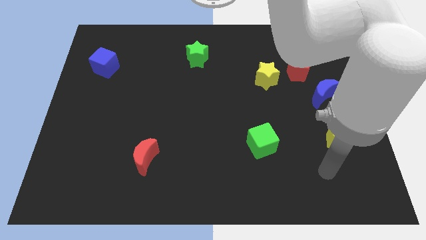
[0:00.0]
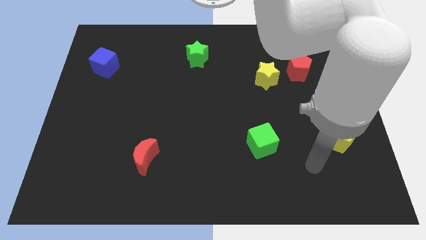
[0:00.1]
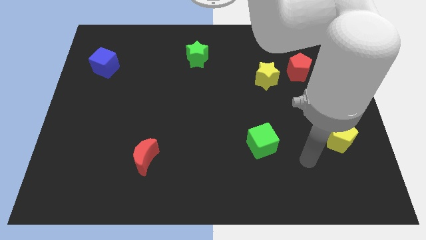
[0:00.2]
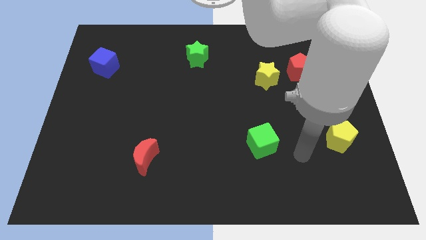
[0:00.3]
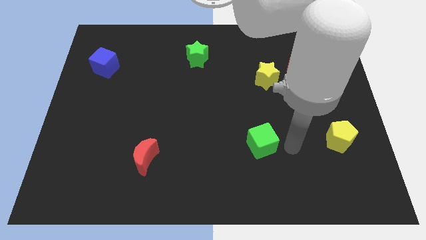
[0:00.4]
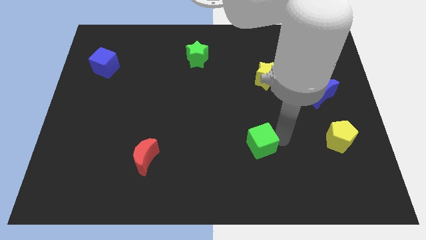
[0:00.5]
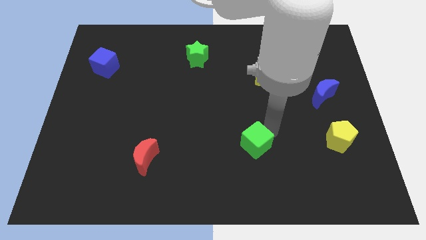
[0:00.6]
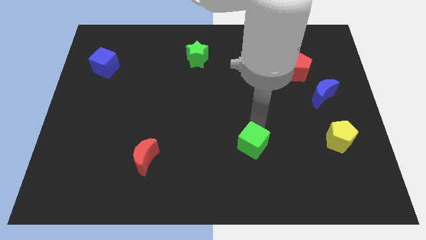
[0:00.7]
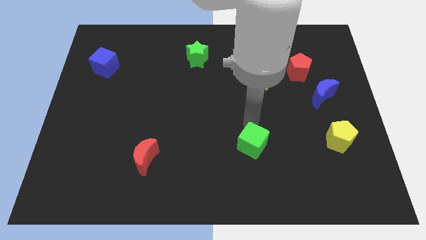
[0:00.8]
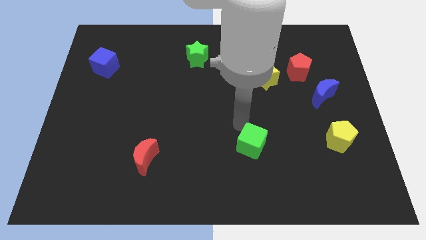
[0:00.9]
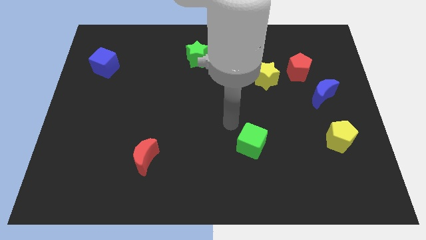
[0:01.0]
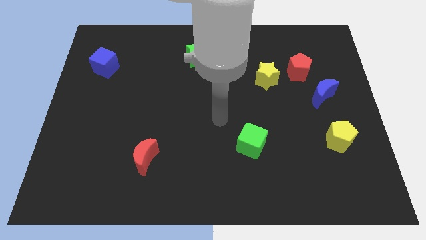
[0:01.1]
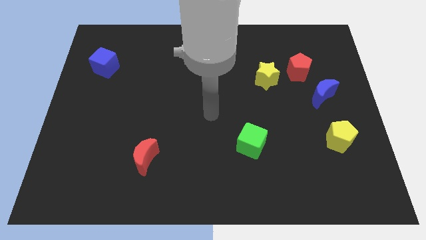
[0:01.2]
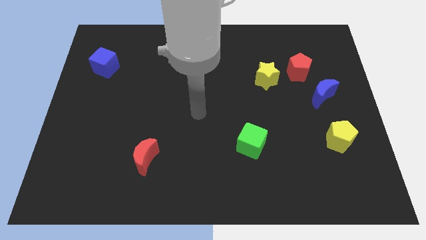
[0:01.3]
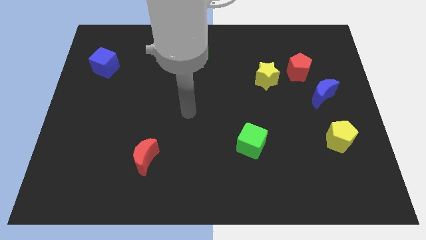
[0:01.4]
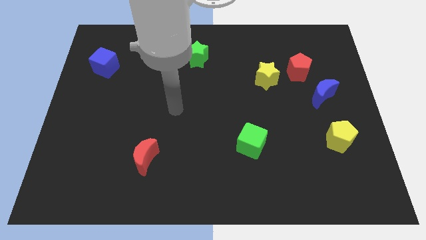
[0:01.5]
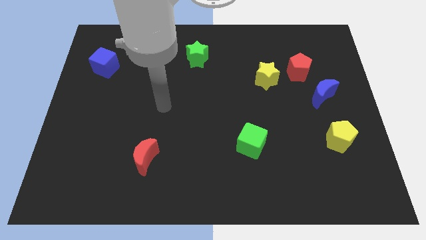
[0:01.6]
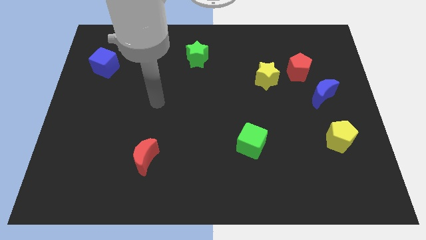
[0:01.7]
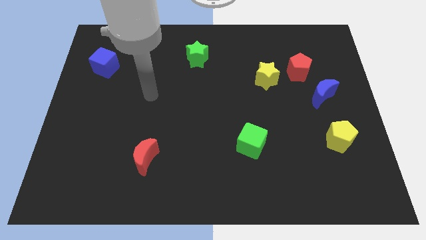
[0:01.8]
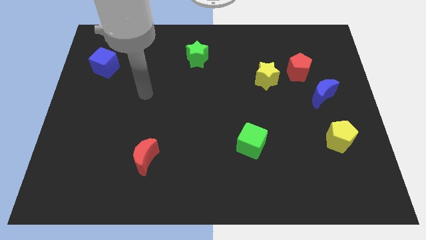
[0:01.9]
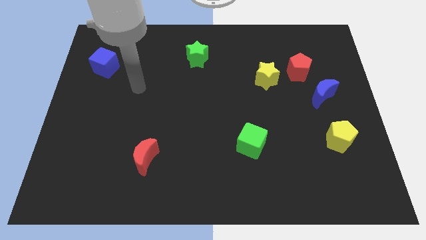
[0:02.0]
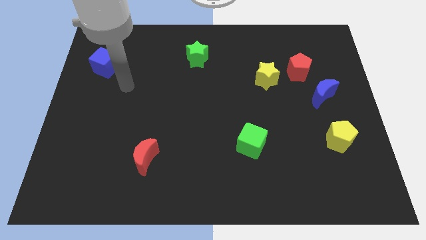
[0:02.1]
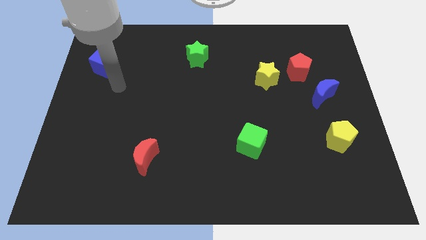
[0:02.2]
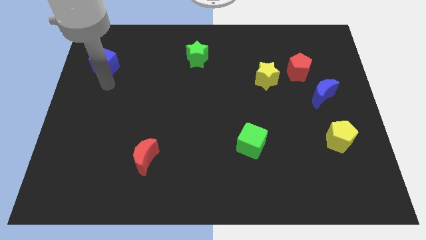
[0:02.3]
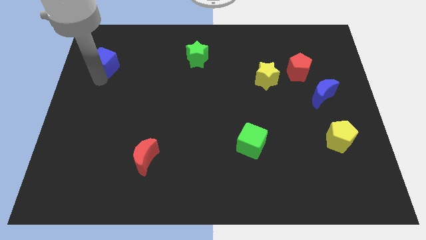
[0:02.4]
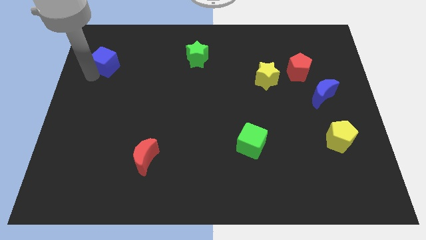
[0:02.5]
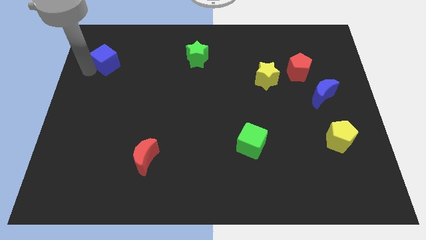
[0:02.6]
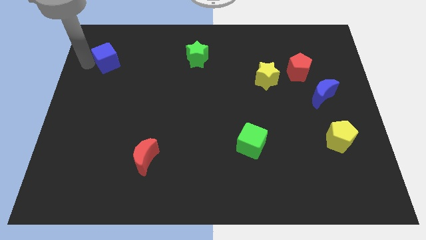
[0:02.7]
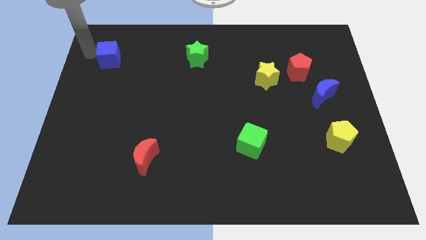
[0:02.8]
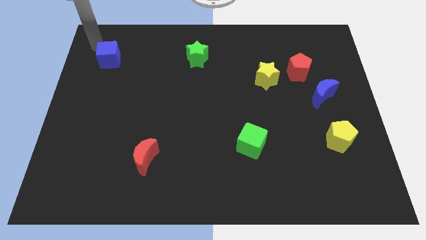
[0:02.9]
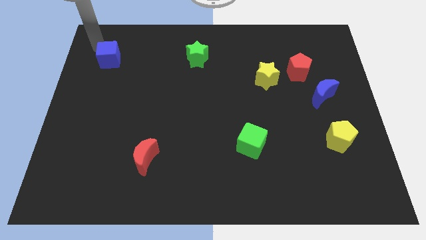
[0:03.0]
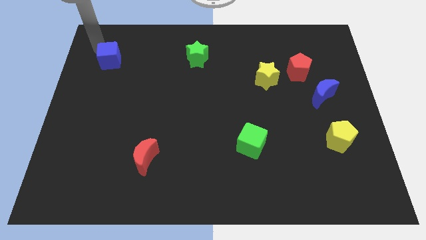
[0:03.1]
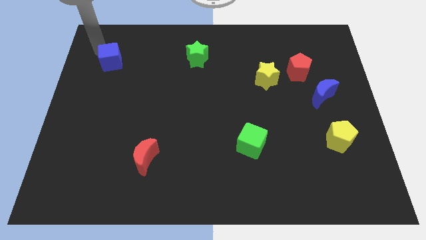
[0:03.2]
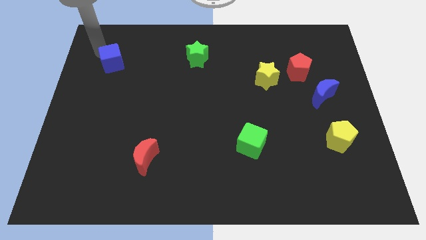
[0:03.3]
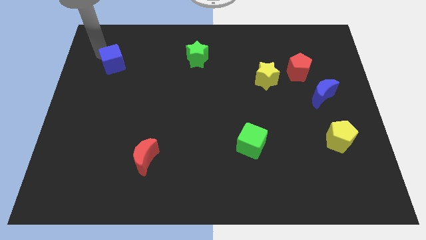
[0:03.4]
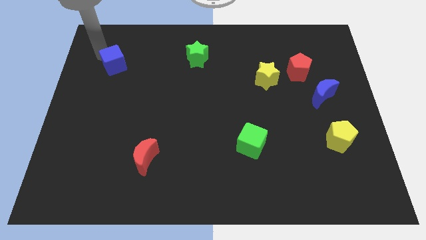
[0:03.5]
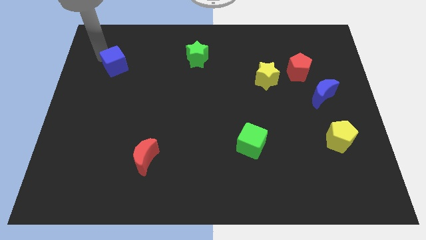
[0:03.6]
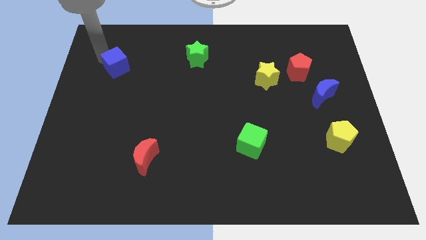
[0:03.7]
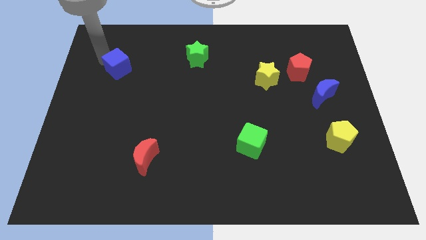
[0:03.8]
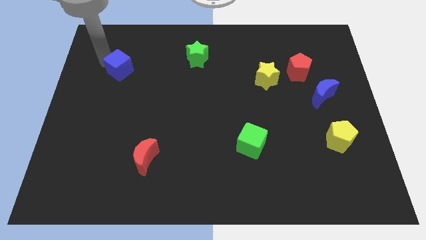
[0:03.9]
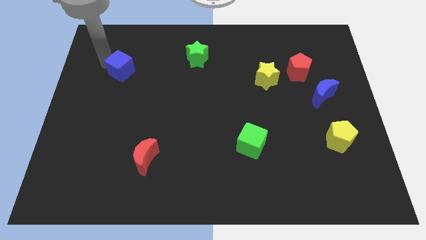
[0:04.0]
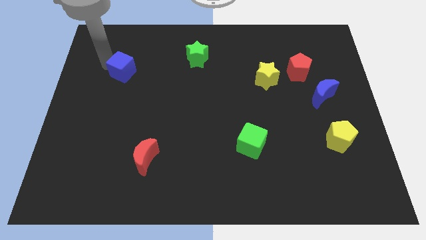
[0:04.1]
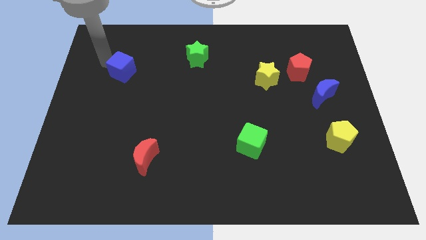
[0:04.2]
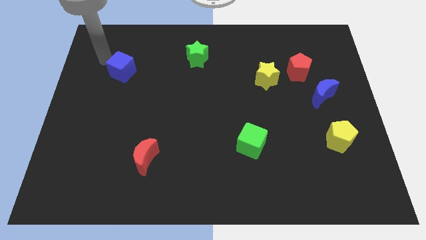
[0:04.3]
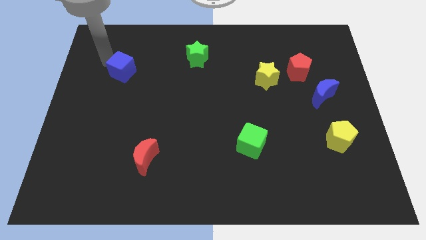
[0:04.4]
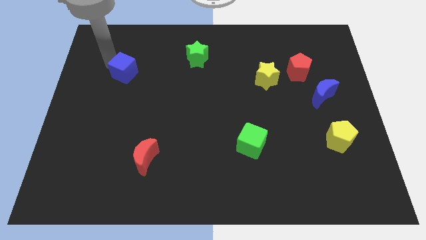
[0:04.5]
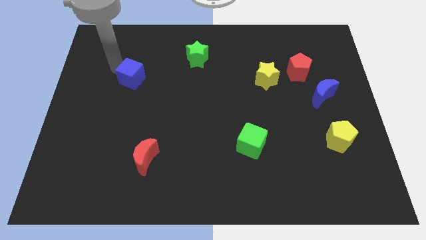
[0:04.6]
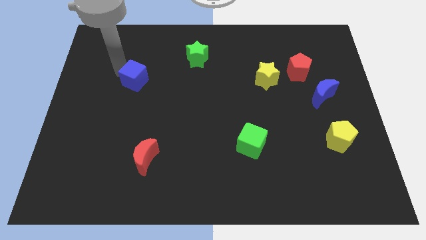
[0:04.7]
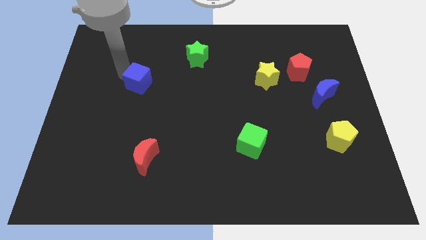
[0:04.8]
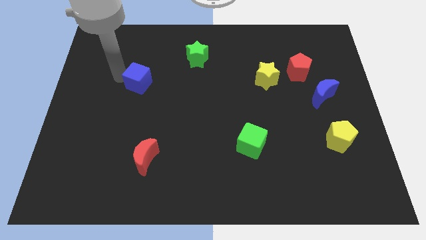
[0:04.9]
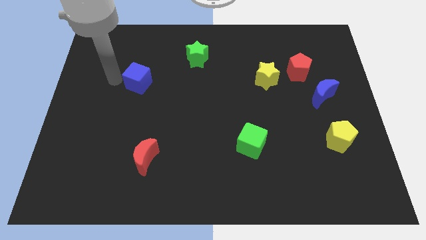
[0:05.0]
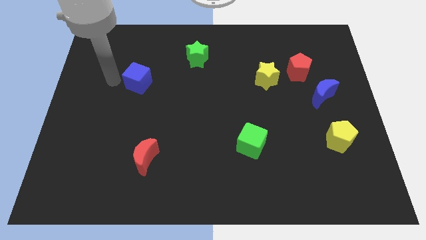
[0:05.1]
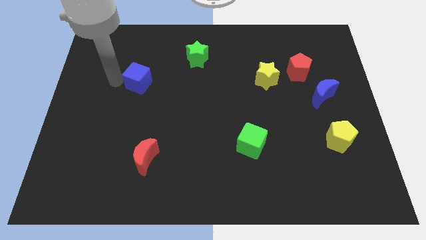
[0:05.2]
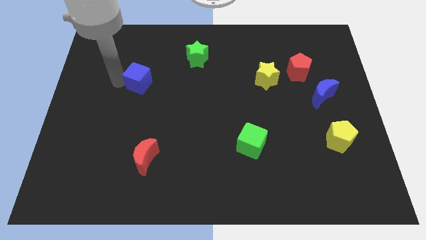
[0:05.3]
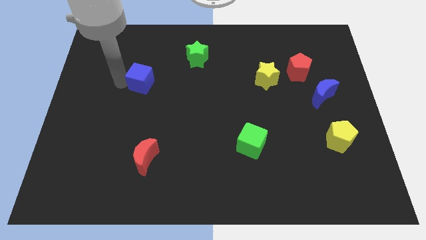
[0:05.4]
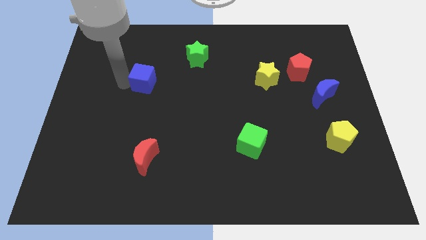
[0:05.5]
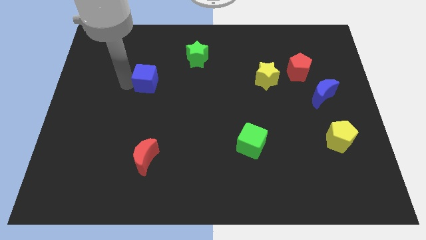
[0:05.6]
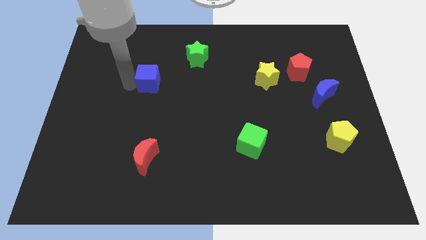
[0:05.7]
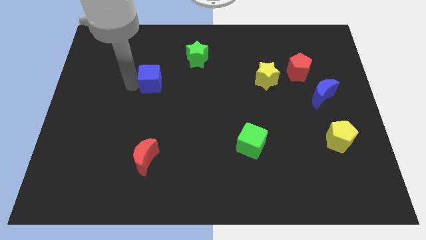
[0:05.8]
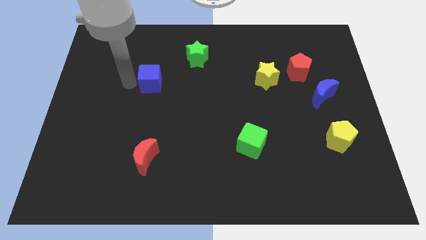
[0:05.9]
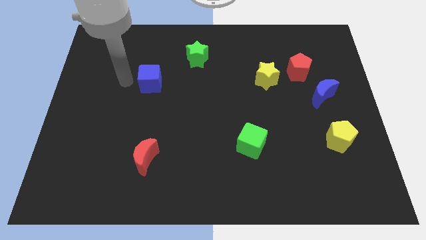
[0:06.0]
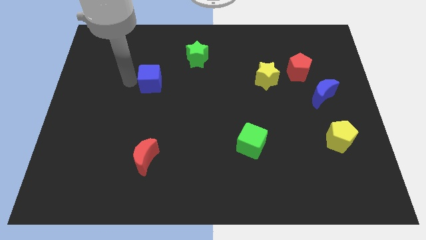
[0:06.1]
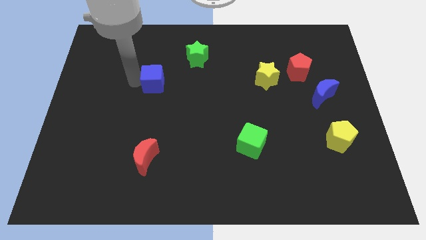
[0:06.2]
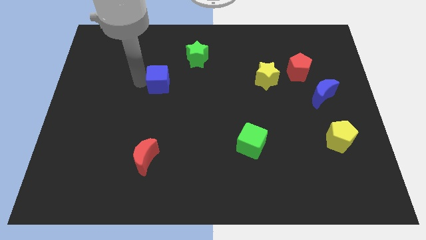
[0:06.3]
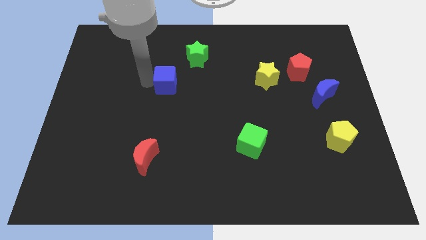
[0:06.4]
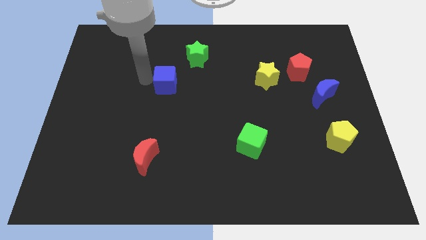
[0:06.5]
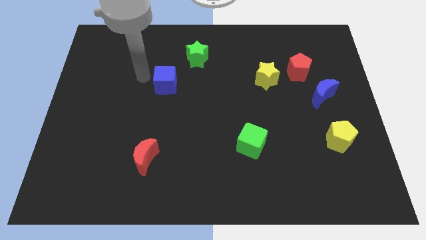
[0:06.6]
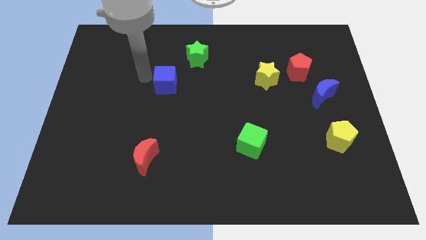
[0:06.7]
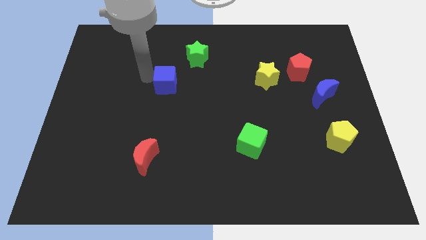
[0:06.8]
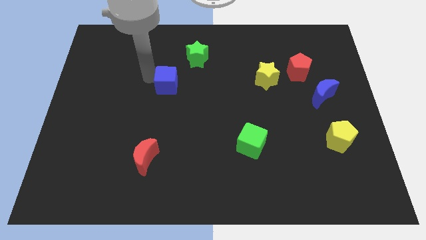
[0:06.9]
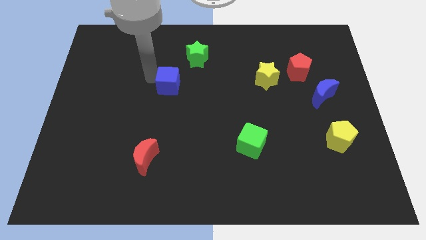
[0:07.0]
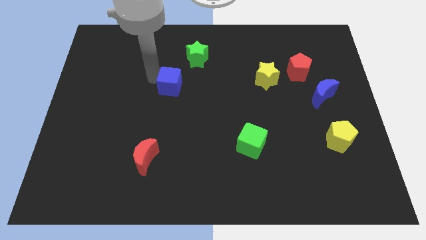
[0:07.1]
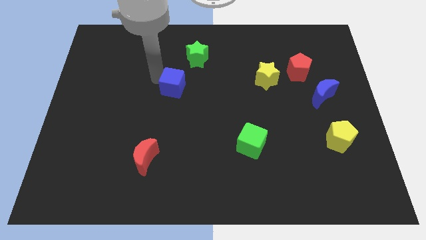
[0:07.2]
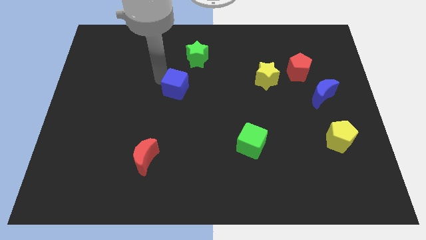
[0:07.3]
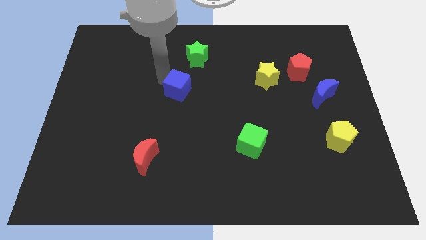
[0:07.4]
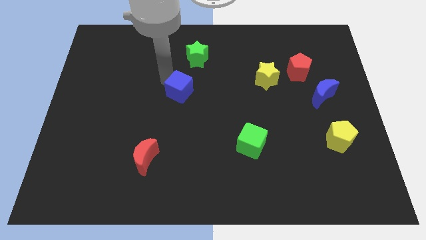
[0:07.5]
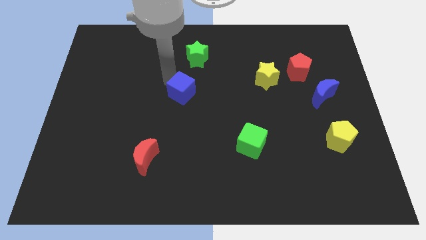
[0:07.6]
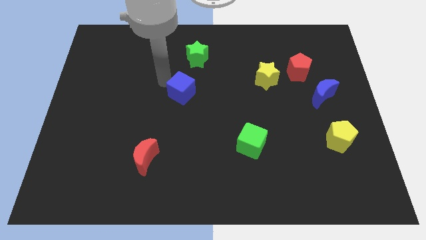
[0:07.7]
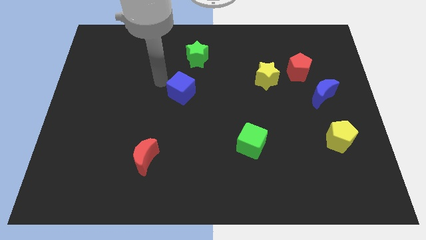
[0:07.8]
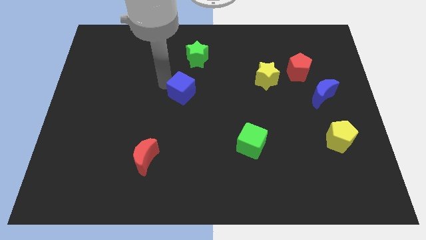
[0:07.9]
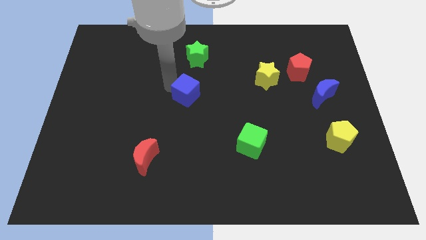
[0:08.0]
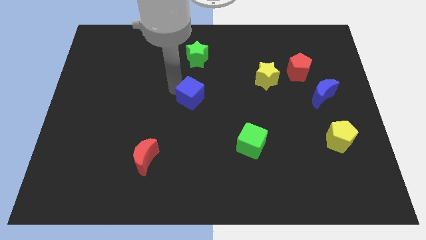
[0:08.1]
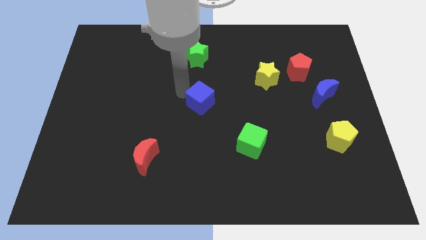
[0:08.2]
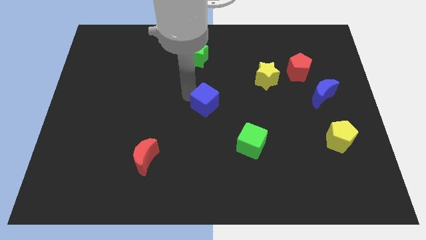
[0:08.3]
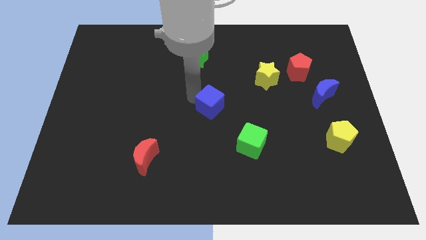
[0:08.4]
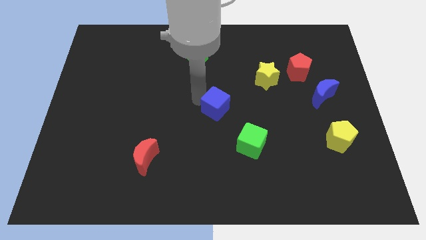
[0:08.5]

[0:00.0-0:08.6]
slide the blue cube to the top left side of the green cube
